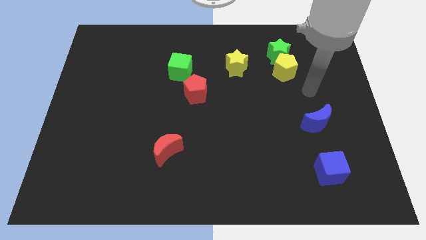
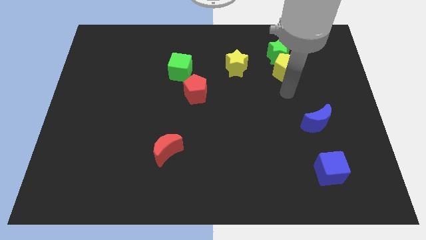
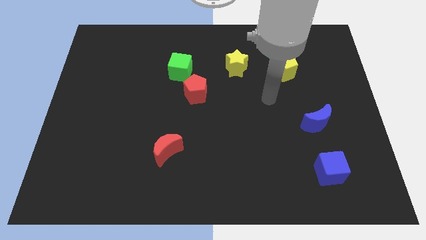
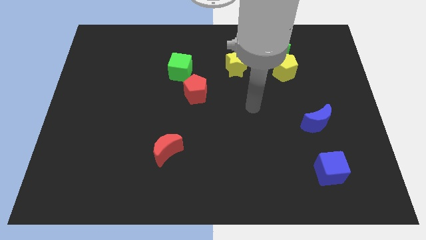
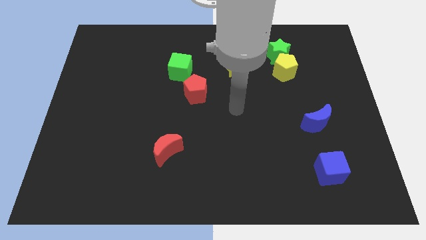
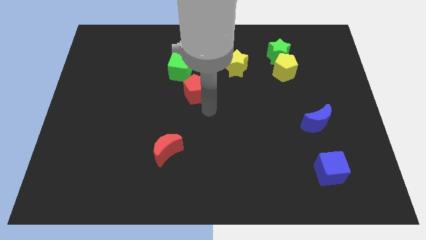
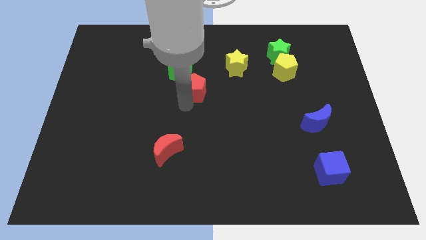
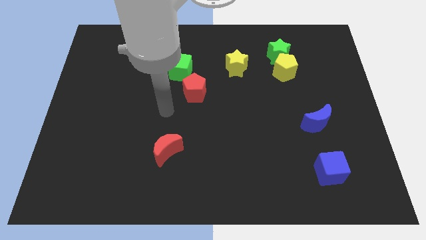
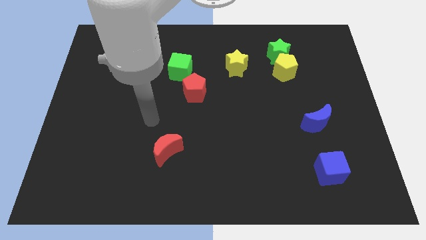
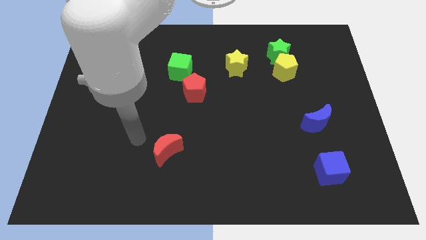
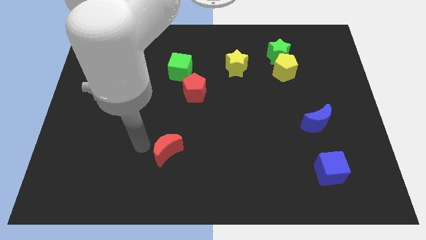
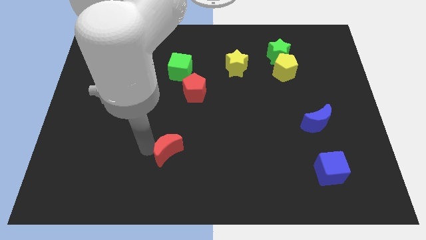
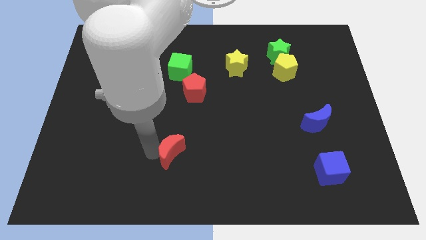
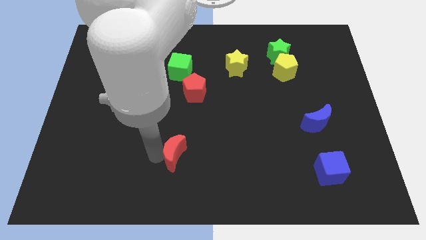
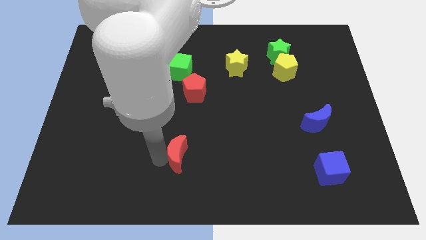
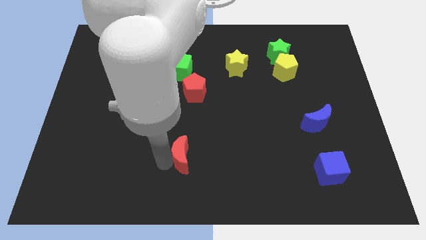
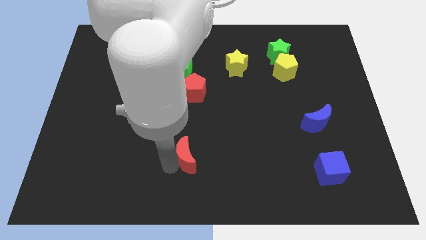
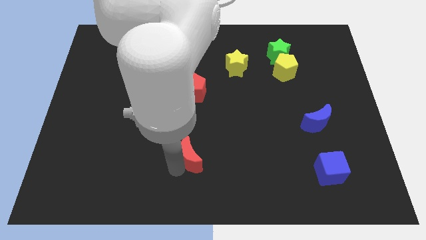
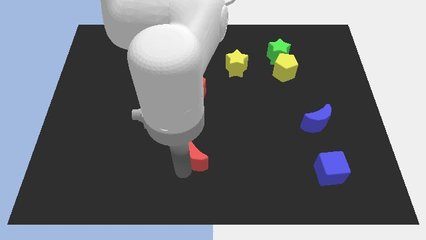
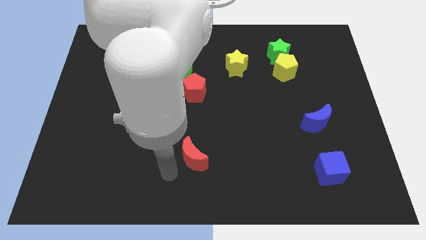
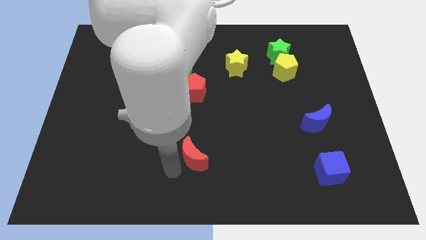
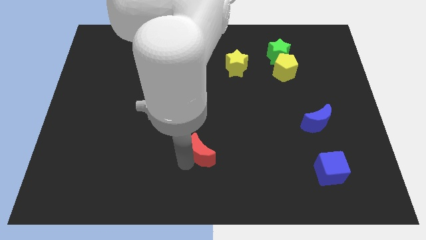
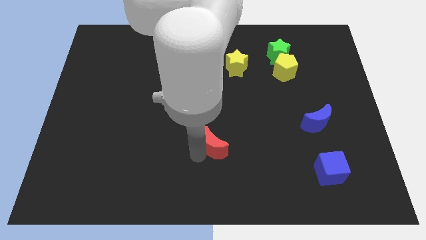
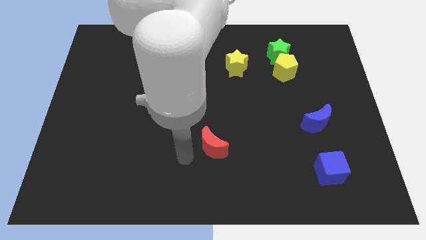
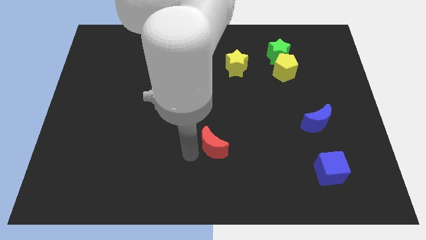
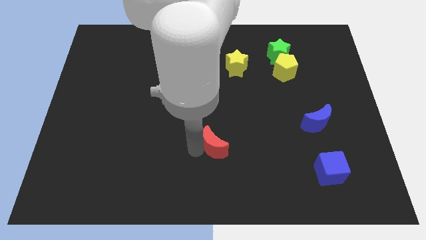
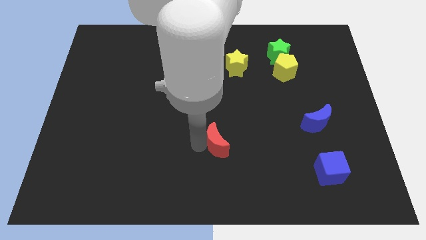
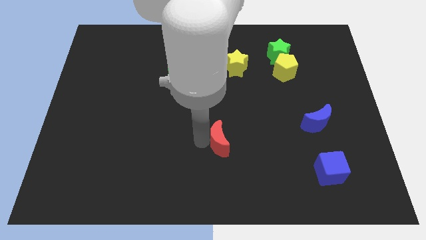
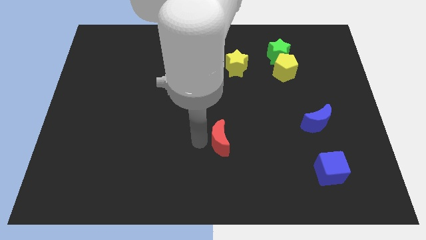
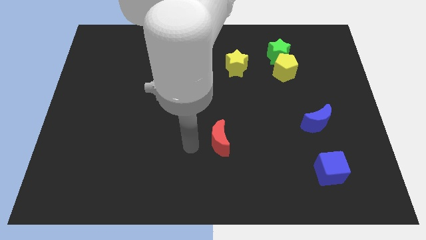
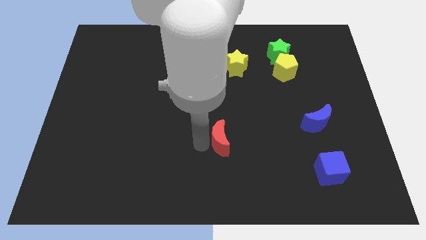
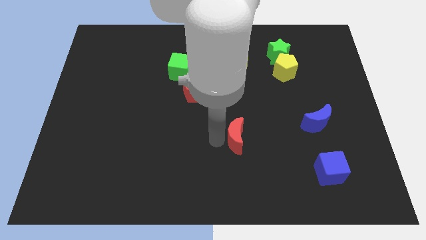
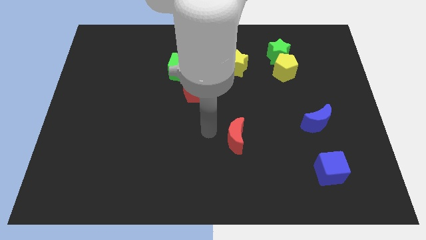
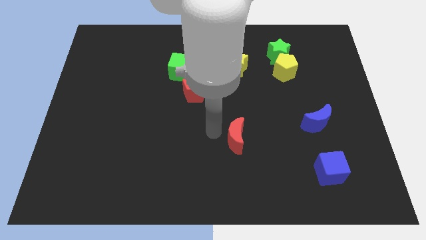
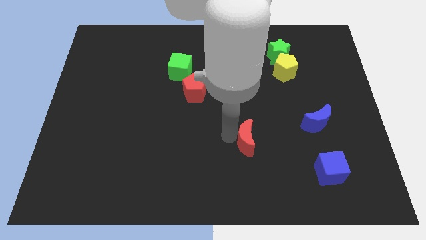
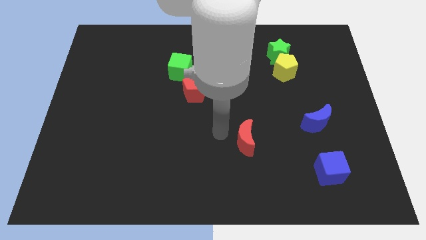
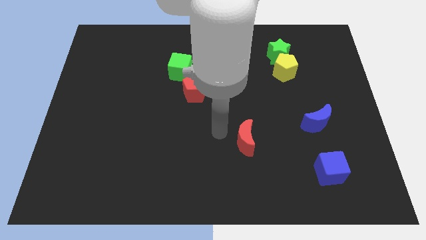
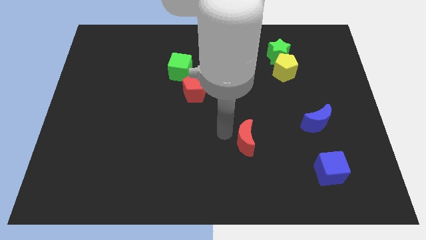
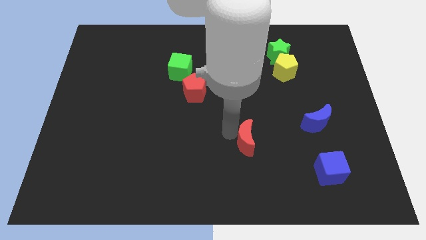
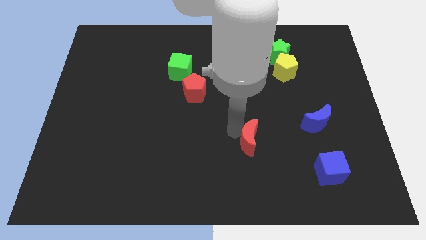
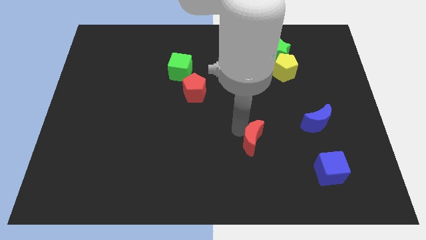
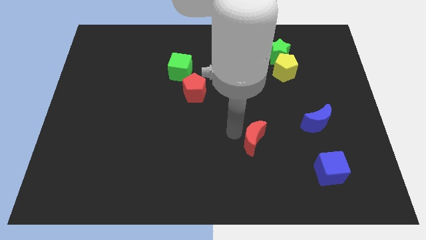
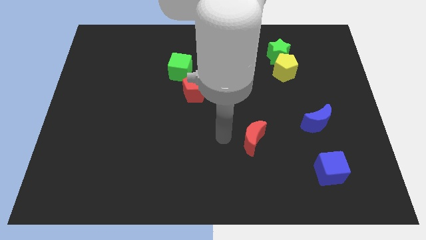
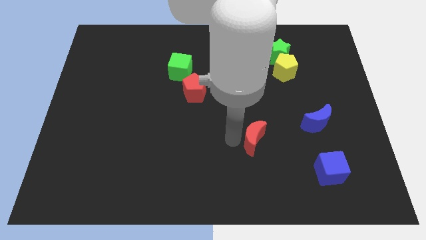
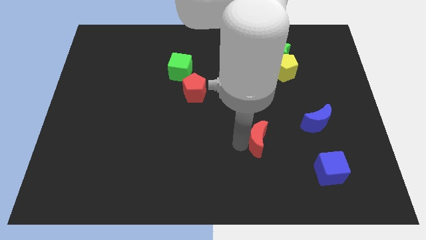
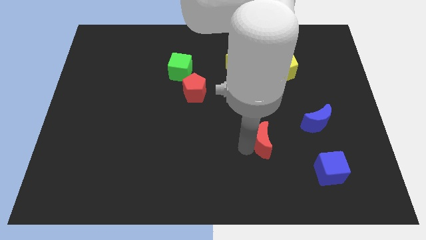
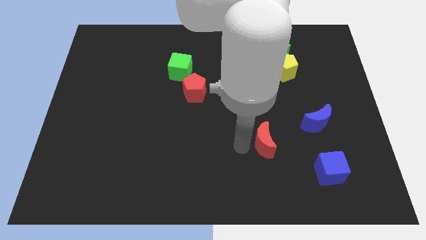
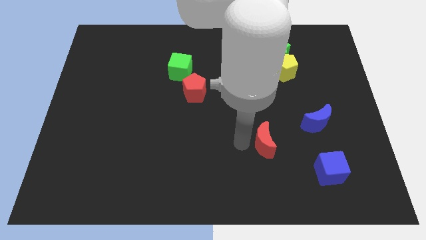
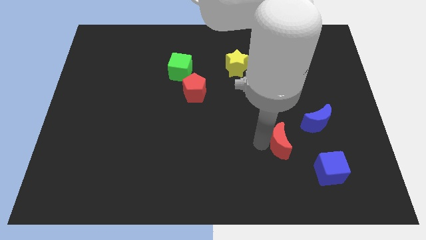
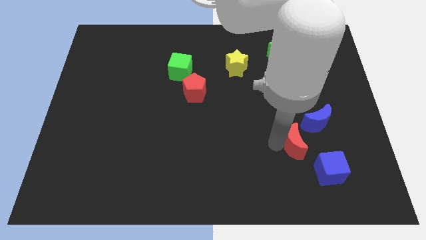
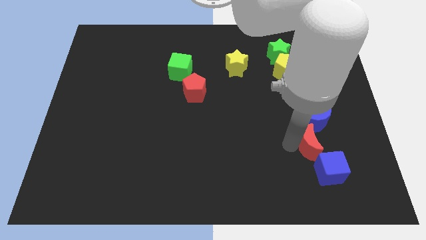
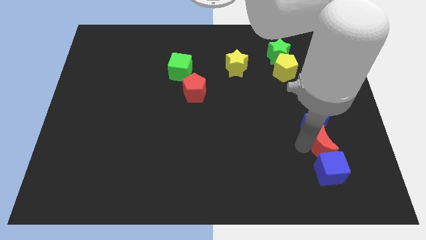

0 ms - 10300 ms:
move the red moon to the bottom right side of the blue moon

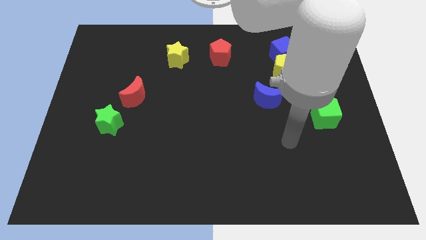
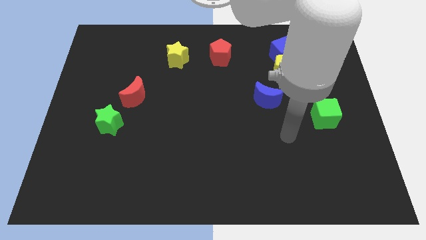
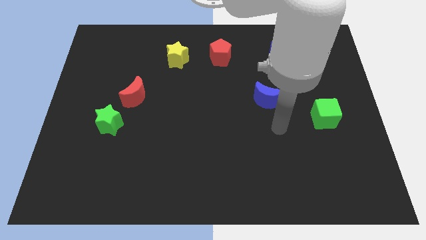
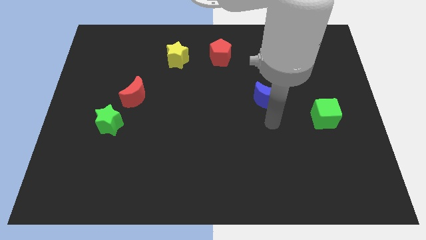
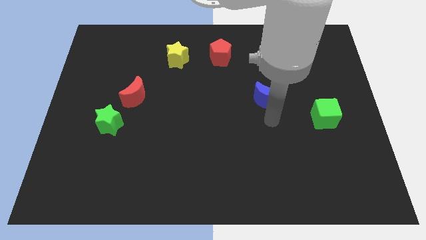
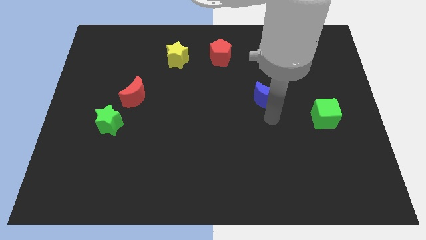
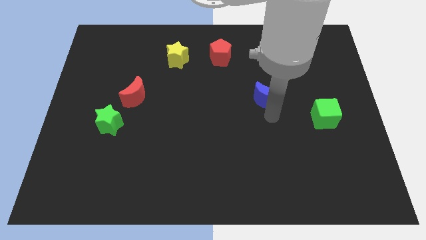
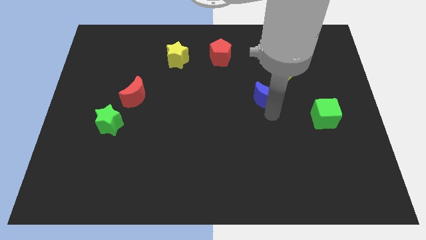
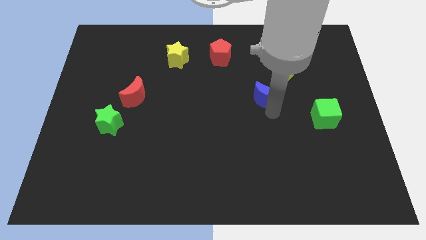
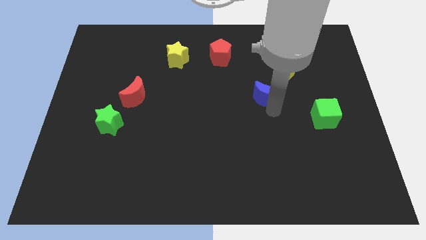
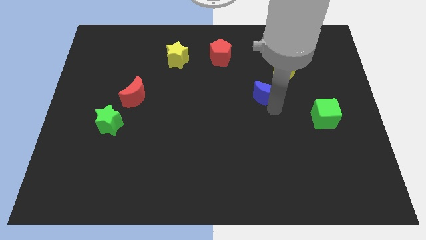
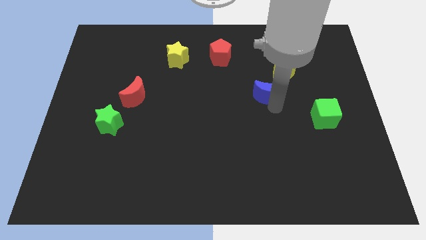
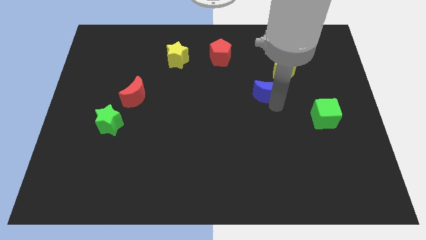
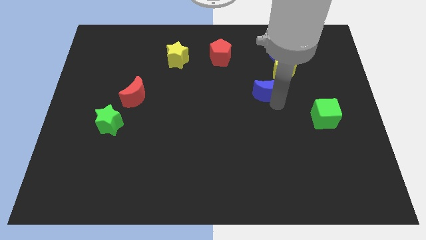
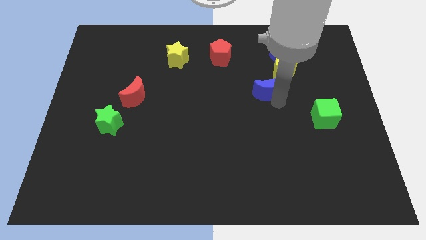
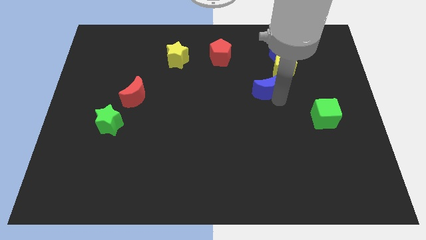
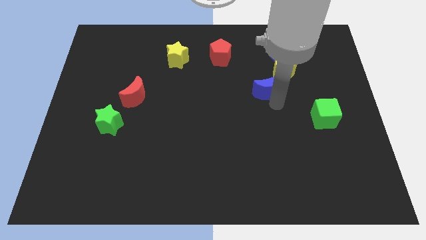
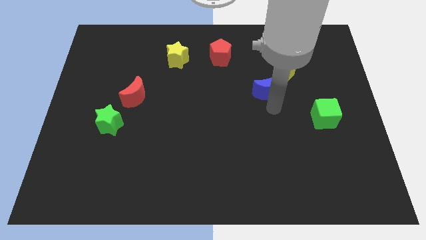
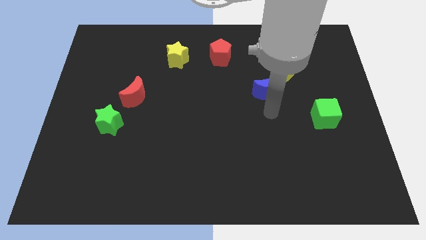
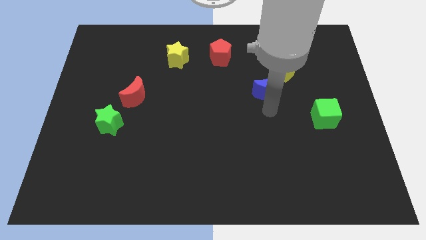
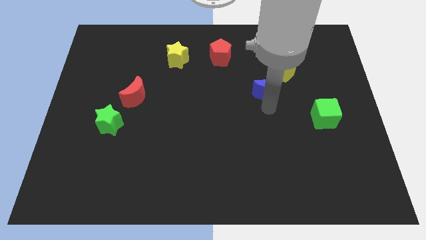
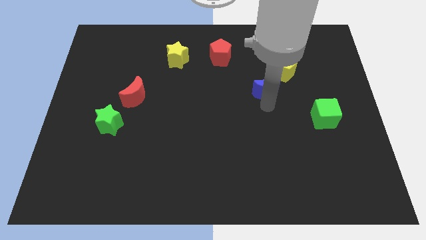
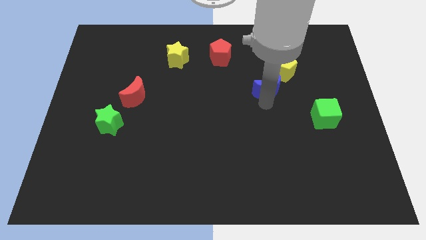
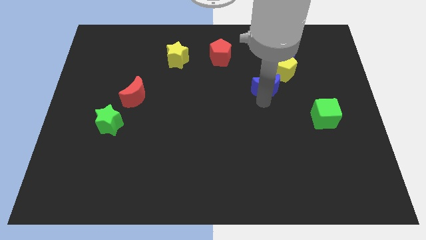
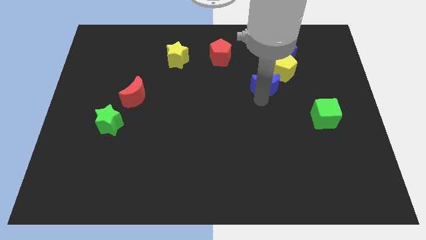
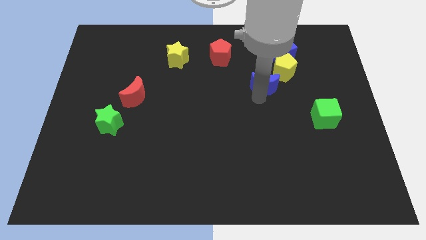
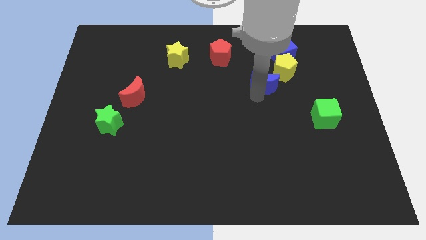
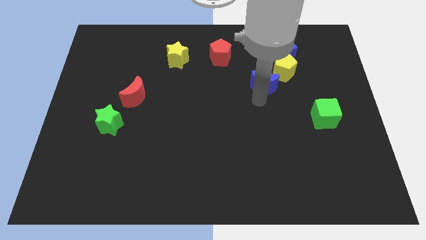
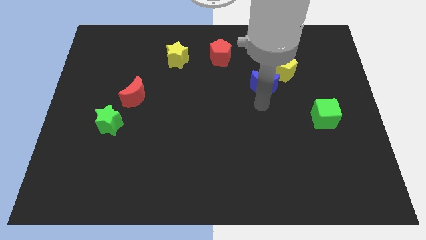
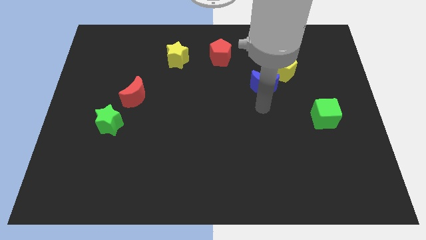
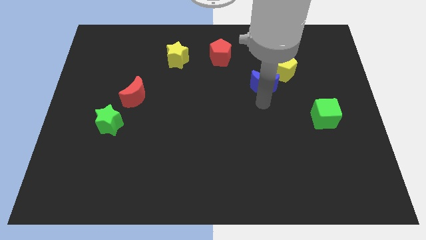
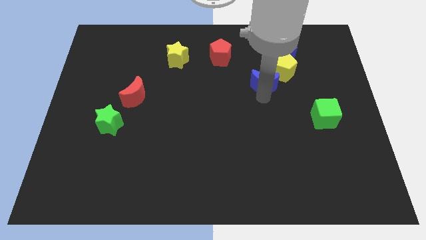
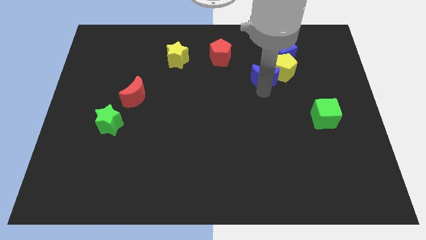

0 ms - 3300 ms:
slide the blue moon to the bottom left side of the blue cube
